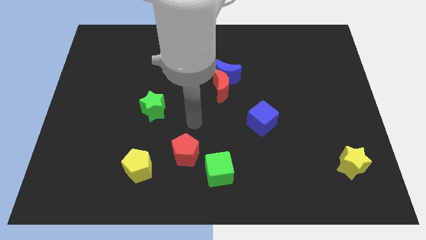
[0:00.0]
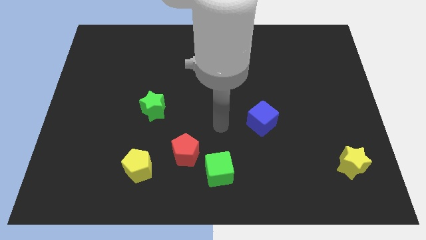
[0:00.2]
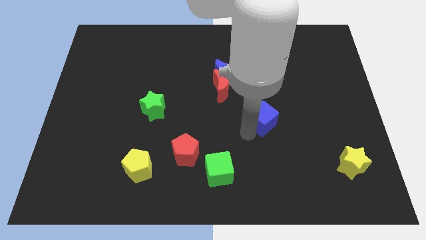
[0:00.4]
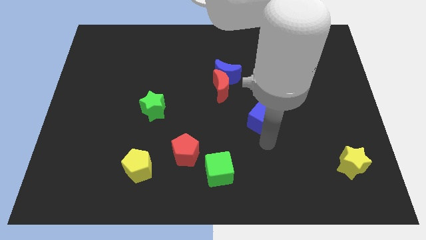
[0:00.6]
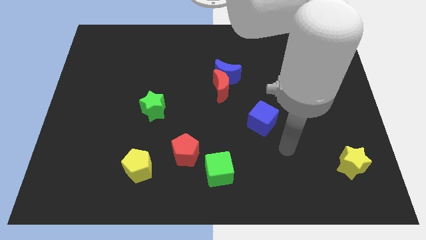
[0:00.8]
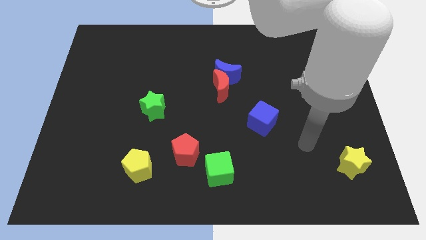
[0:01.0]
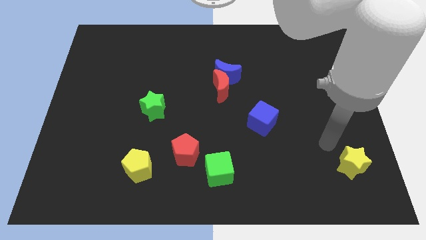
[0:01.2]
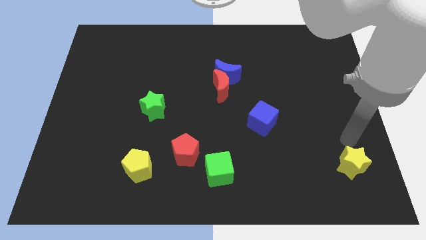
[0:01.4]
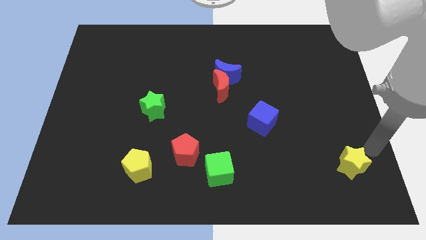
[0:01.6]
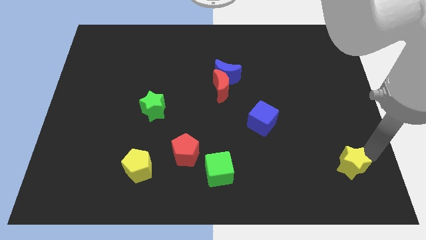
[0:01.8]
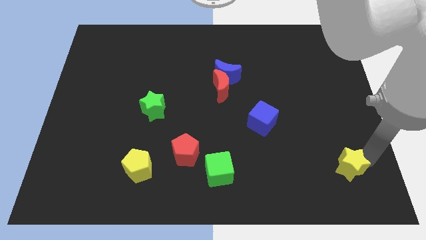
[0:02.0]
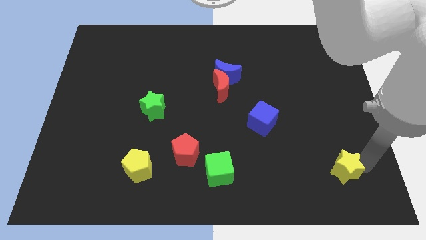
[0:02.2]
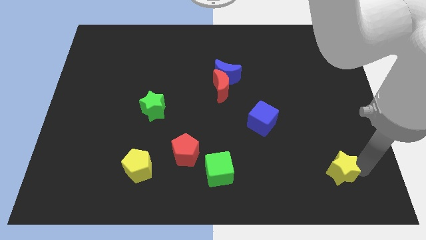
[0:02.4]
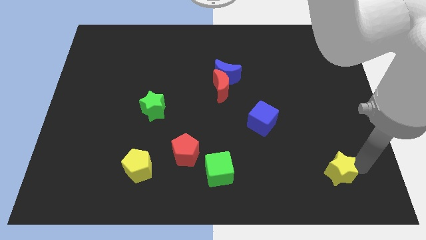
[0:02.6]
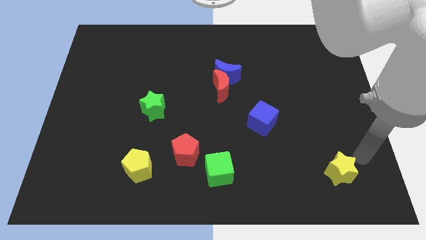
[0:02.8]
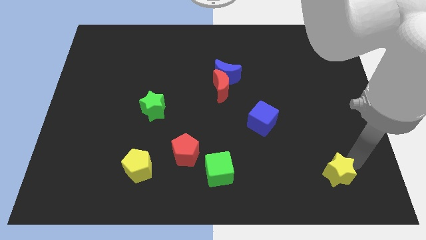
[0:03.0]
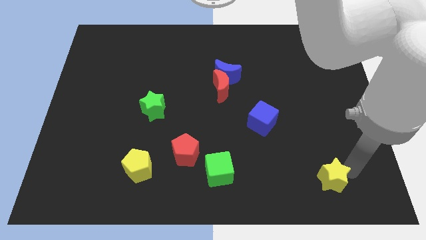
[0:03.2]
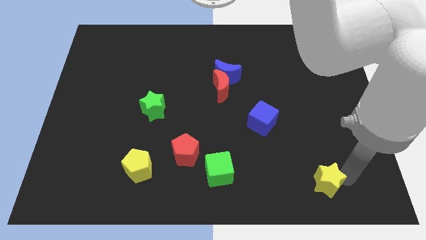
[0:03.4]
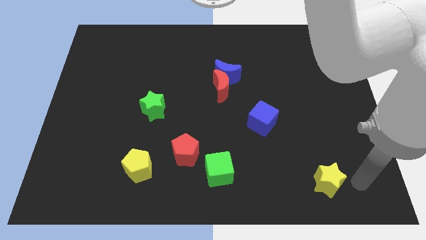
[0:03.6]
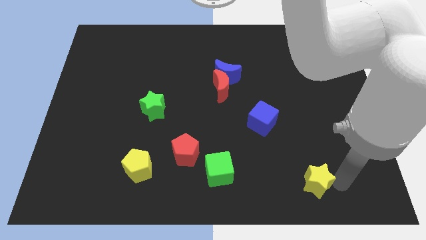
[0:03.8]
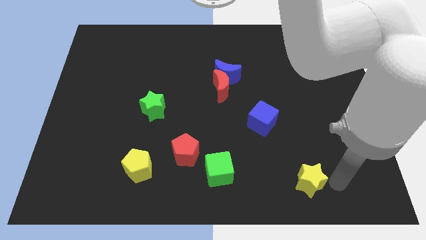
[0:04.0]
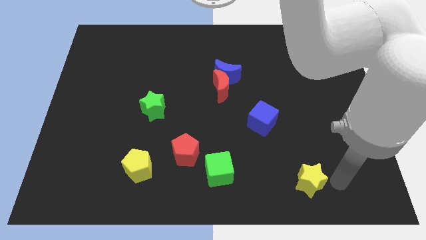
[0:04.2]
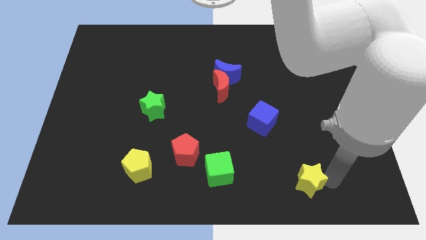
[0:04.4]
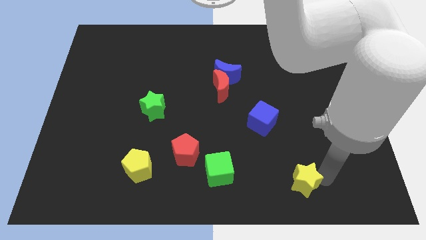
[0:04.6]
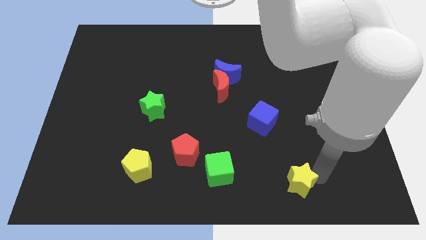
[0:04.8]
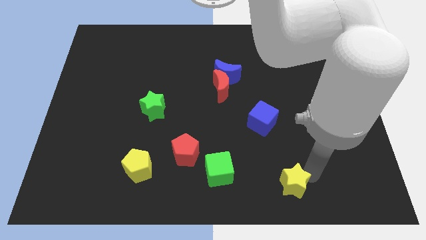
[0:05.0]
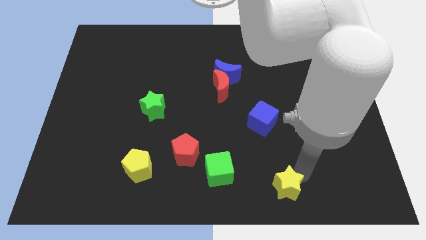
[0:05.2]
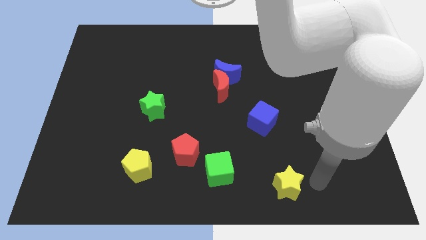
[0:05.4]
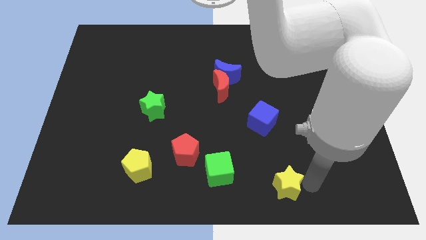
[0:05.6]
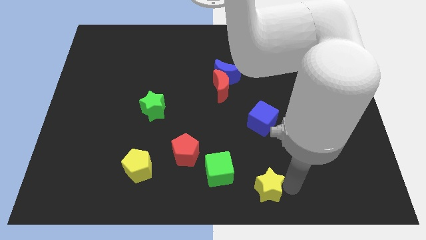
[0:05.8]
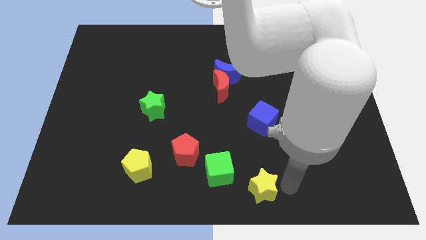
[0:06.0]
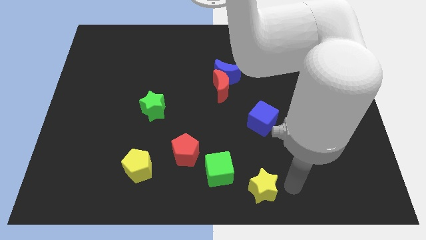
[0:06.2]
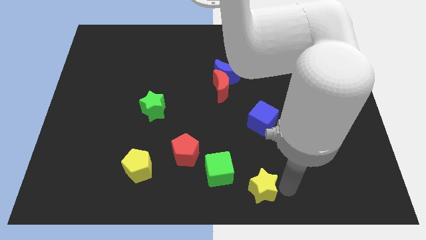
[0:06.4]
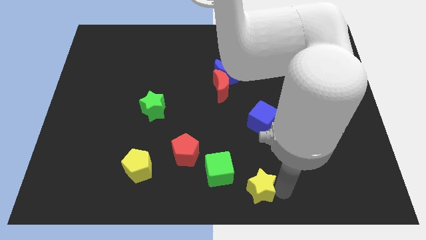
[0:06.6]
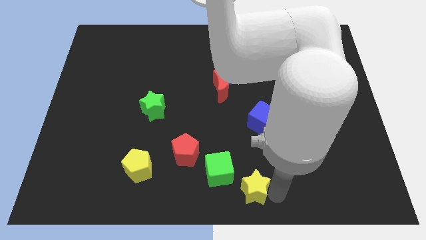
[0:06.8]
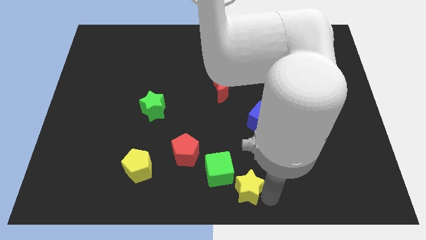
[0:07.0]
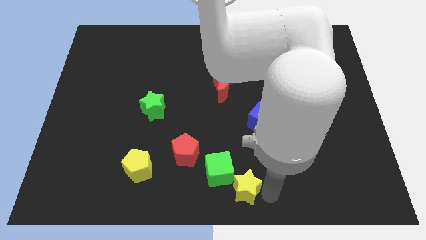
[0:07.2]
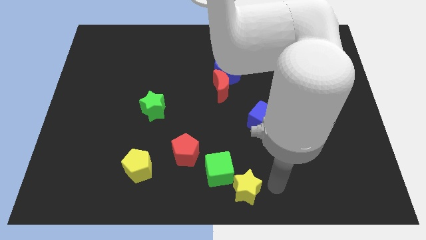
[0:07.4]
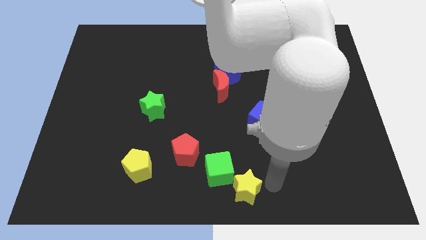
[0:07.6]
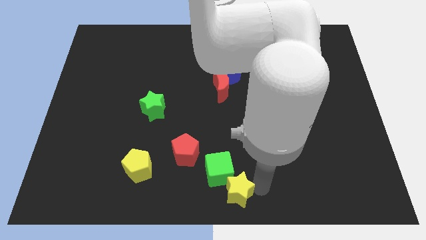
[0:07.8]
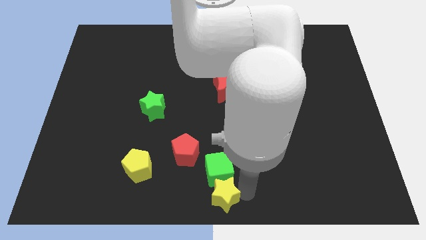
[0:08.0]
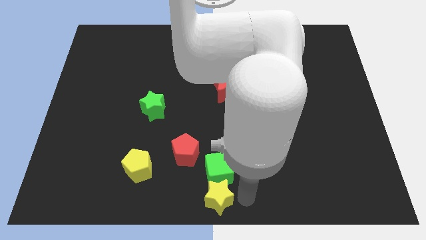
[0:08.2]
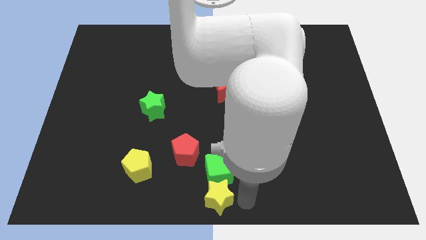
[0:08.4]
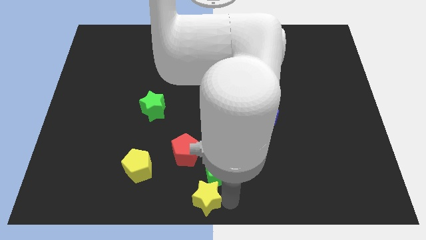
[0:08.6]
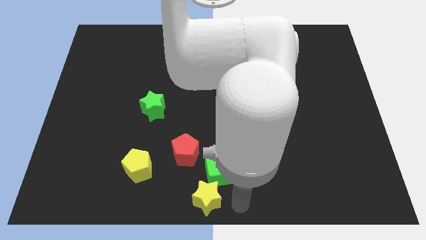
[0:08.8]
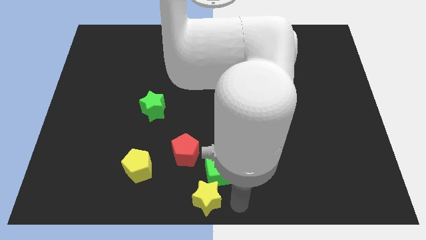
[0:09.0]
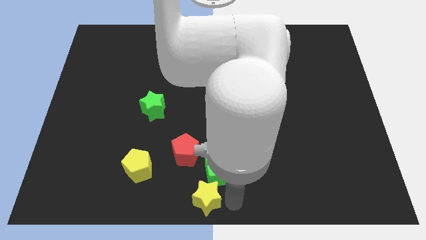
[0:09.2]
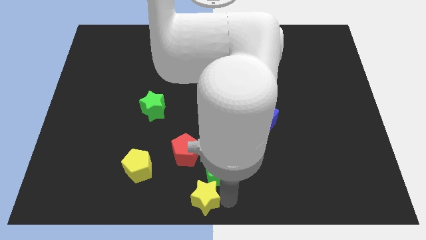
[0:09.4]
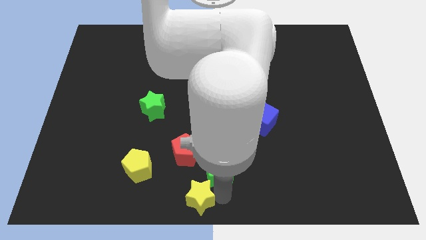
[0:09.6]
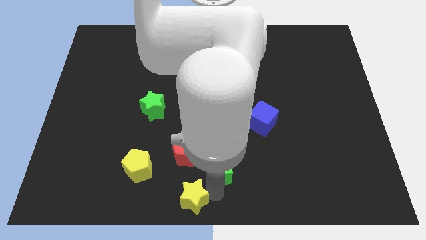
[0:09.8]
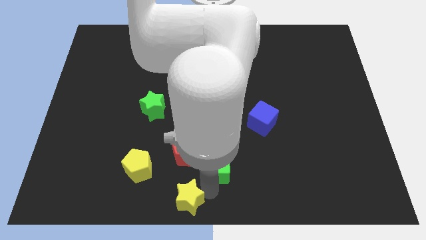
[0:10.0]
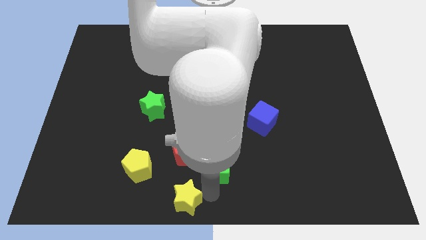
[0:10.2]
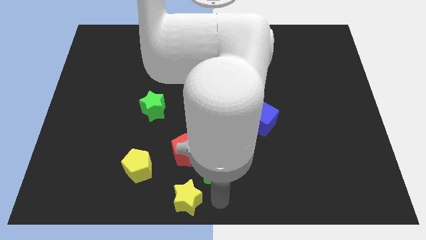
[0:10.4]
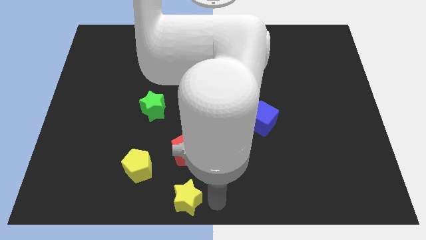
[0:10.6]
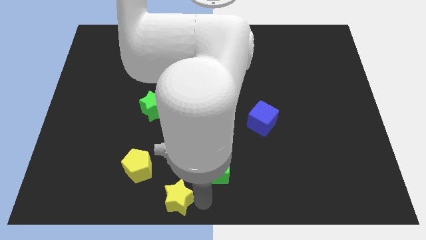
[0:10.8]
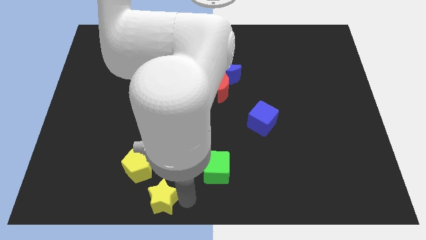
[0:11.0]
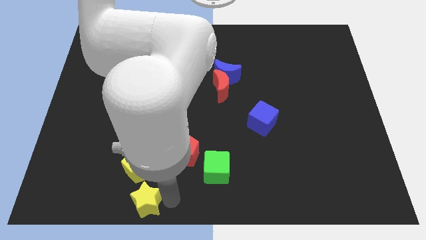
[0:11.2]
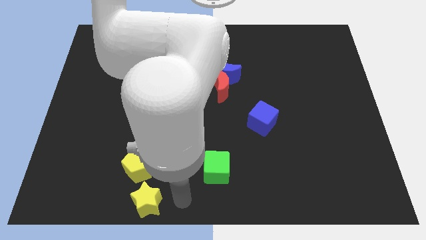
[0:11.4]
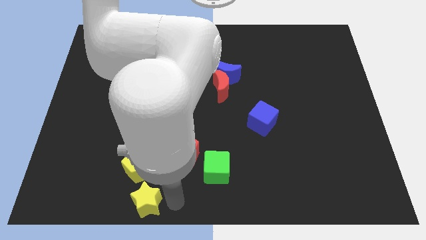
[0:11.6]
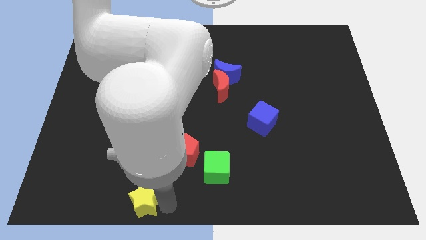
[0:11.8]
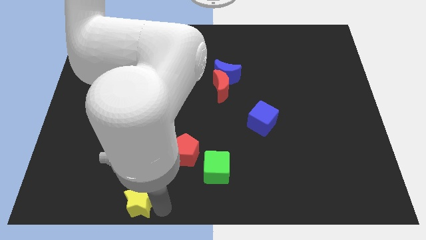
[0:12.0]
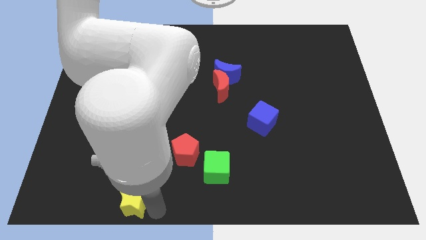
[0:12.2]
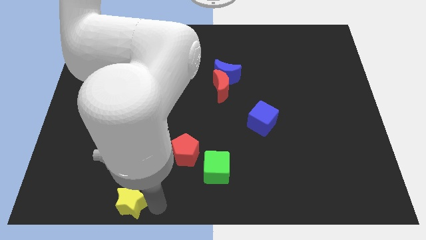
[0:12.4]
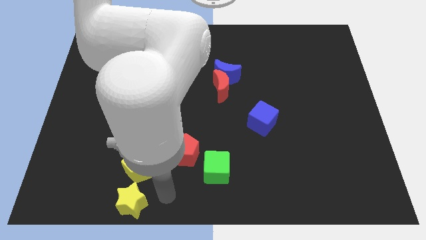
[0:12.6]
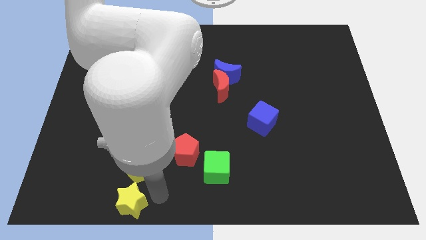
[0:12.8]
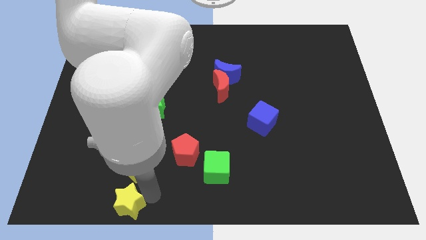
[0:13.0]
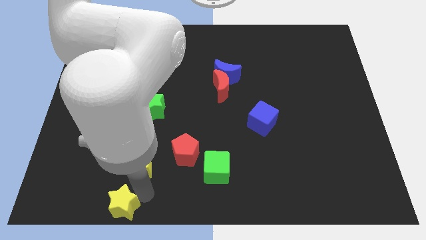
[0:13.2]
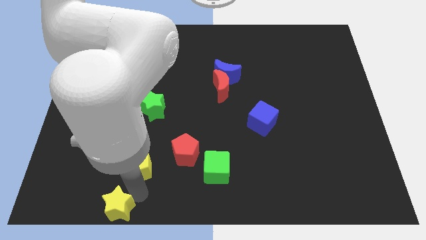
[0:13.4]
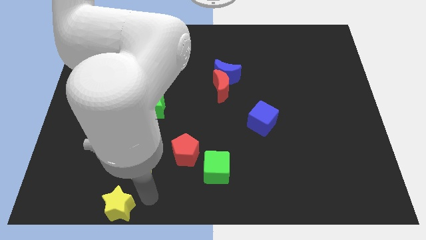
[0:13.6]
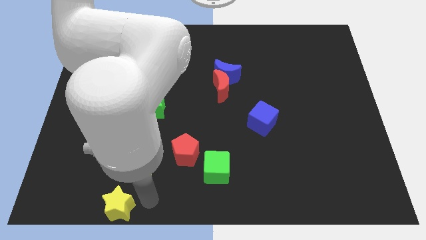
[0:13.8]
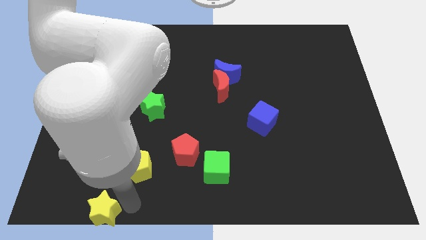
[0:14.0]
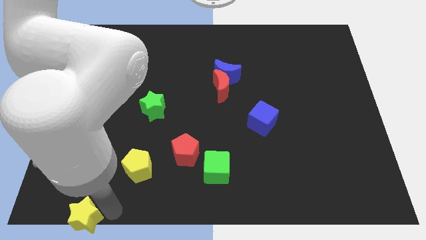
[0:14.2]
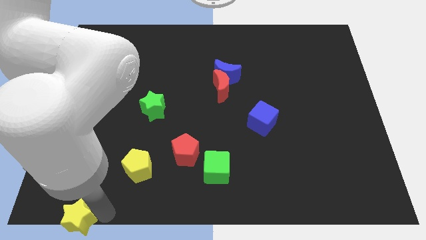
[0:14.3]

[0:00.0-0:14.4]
push the yellow star to the bottom left of the board
